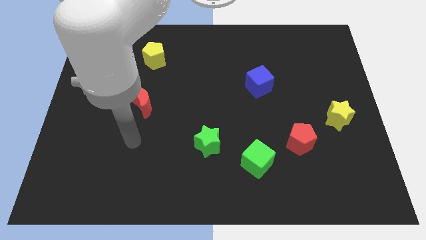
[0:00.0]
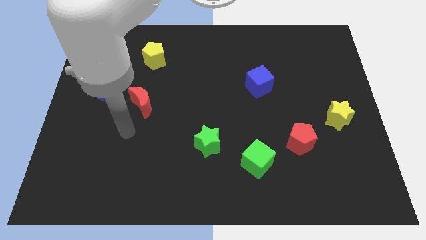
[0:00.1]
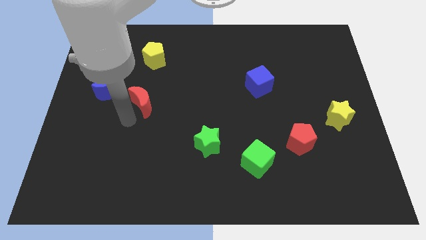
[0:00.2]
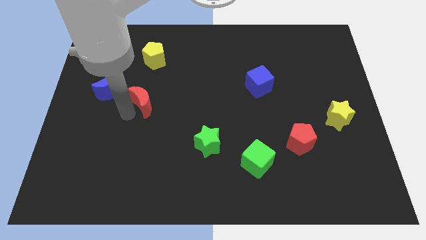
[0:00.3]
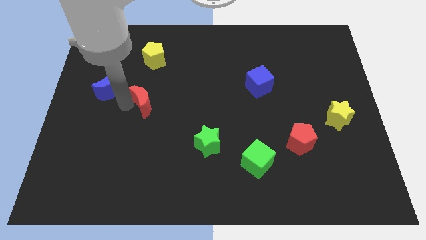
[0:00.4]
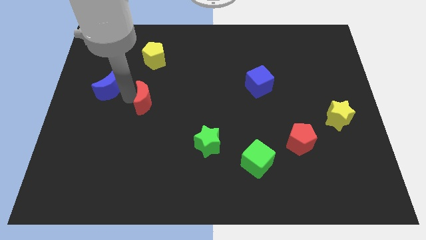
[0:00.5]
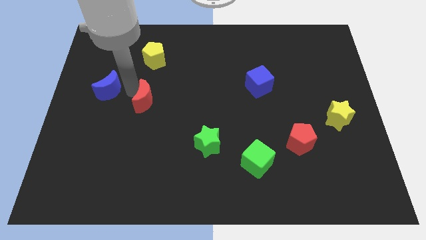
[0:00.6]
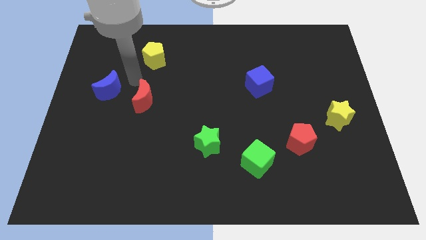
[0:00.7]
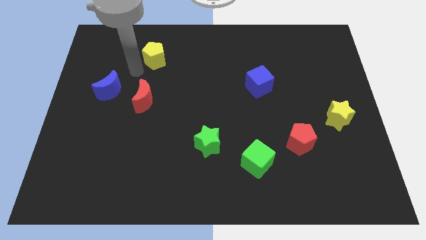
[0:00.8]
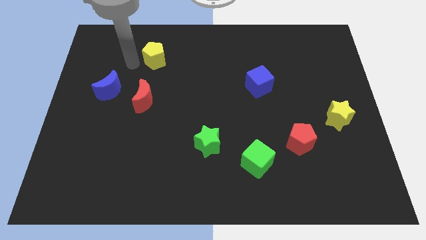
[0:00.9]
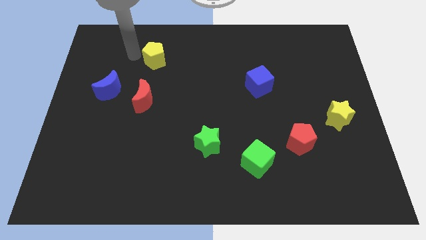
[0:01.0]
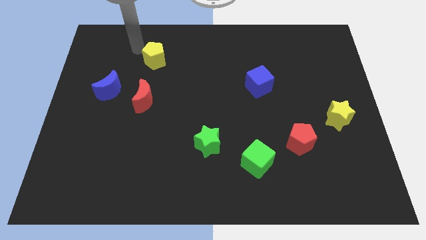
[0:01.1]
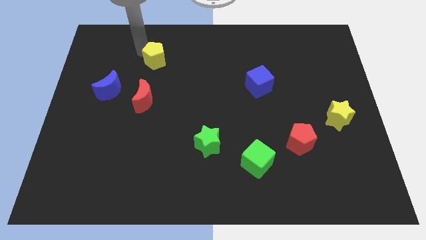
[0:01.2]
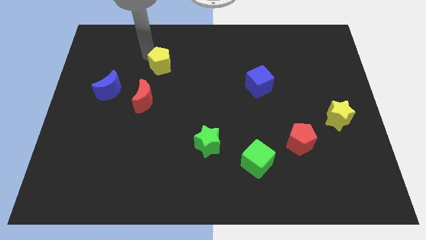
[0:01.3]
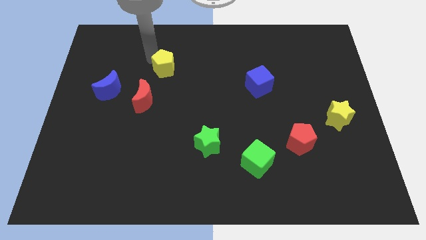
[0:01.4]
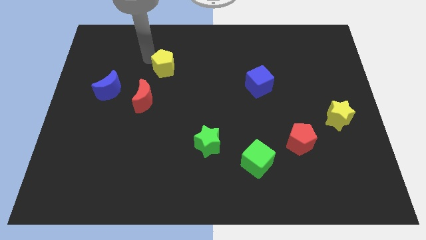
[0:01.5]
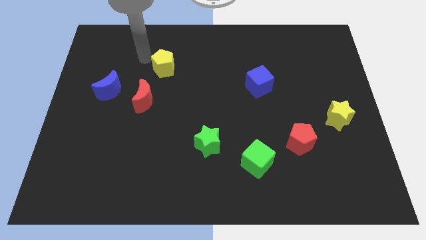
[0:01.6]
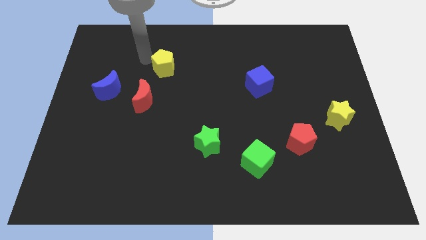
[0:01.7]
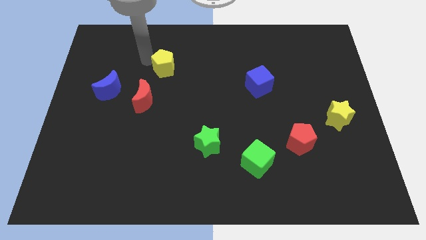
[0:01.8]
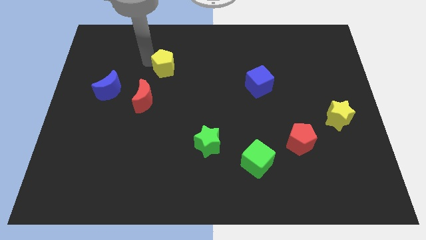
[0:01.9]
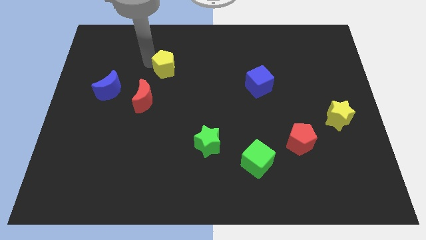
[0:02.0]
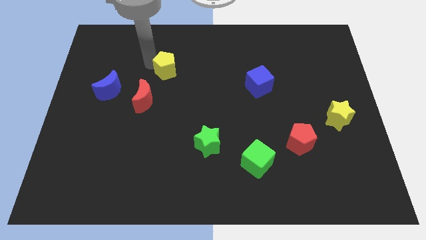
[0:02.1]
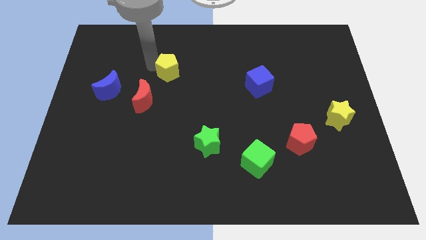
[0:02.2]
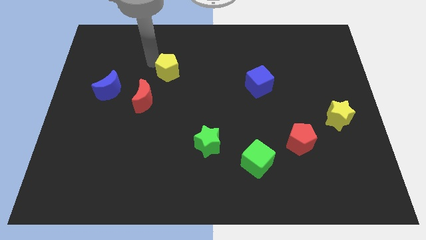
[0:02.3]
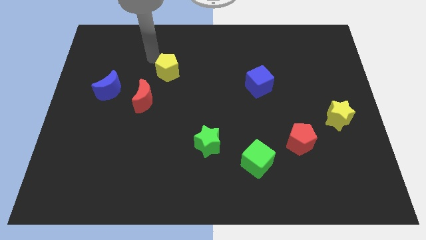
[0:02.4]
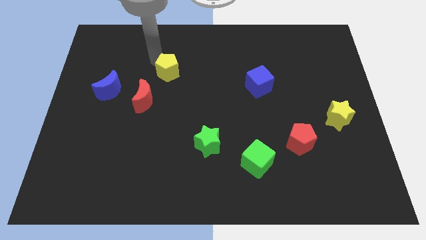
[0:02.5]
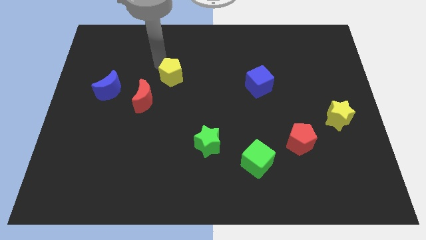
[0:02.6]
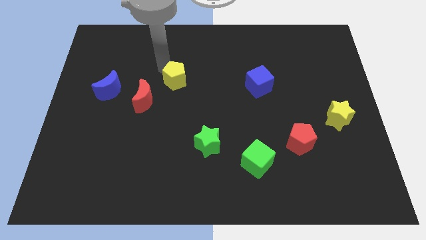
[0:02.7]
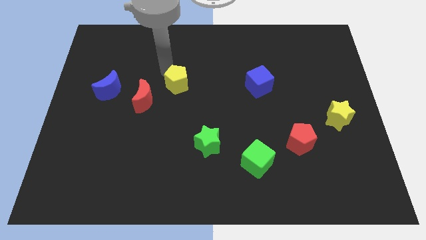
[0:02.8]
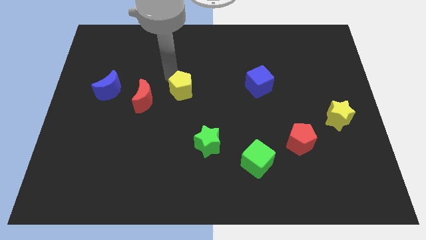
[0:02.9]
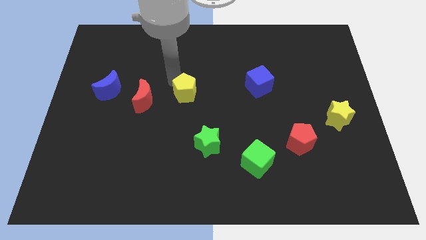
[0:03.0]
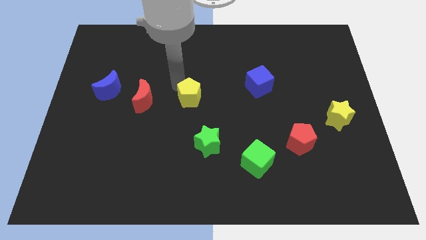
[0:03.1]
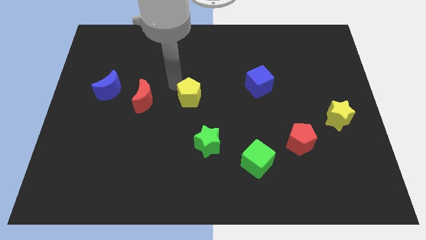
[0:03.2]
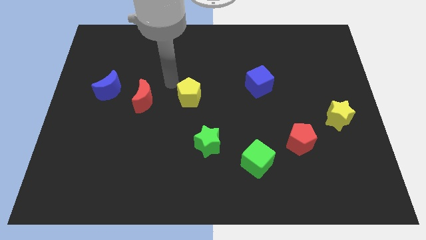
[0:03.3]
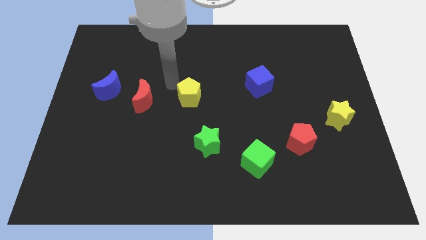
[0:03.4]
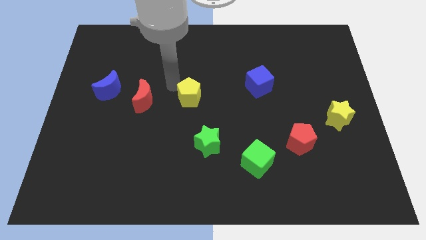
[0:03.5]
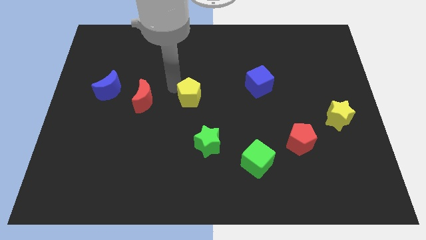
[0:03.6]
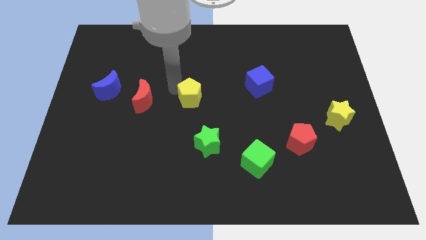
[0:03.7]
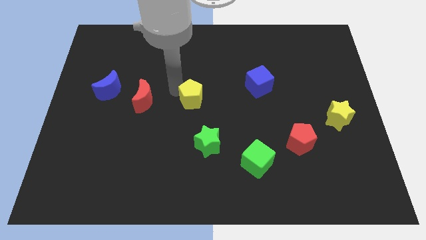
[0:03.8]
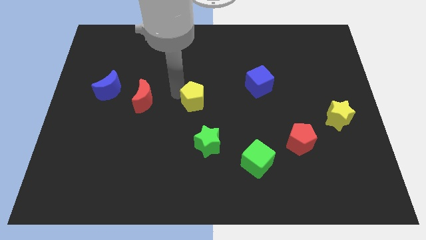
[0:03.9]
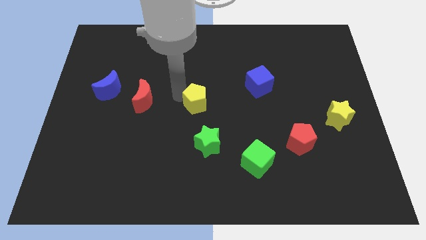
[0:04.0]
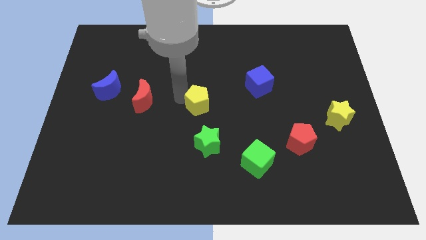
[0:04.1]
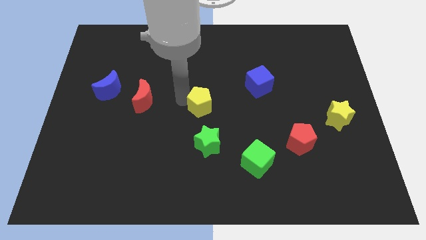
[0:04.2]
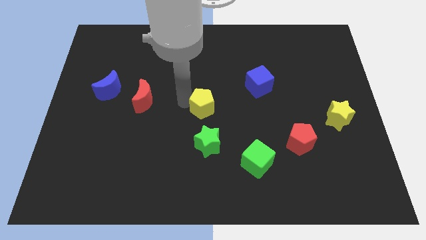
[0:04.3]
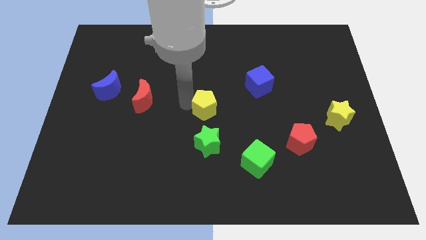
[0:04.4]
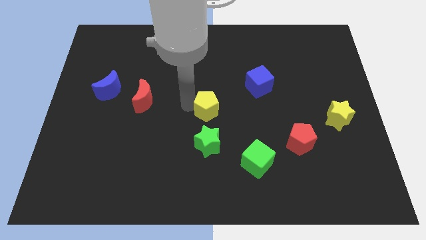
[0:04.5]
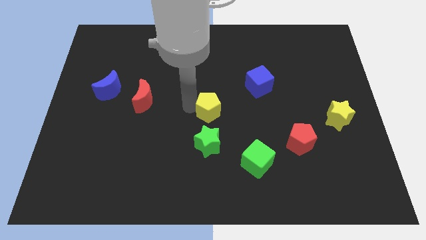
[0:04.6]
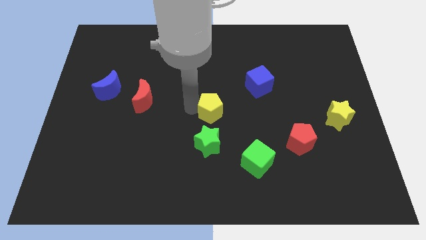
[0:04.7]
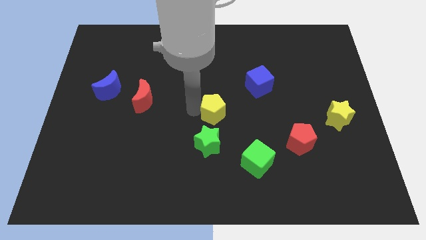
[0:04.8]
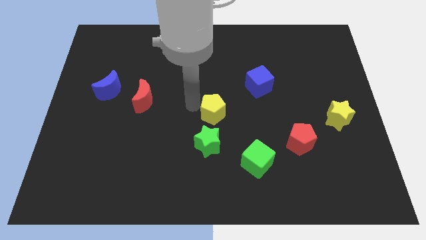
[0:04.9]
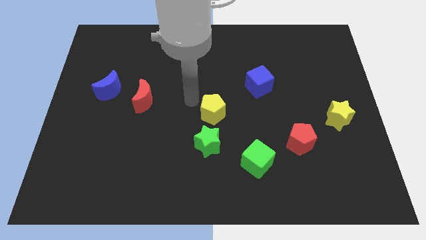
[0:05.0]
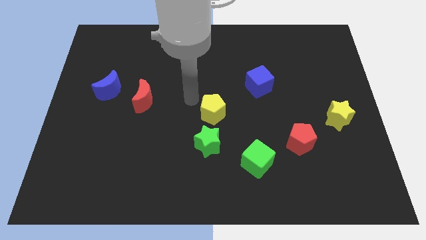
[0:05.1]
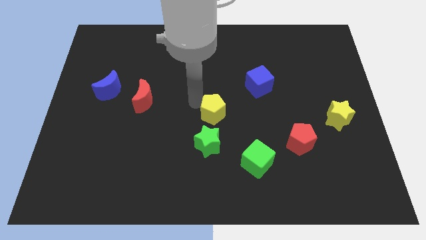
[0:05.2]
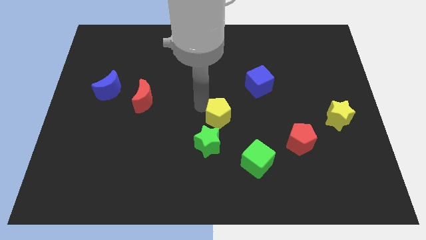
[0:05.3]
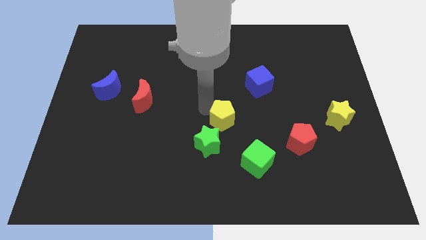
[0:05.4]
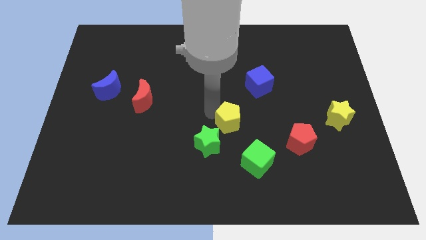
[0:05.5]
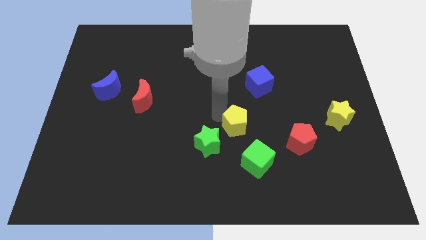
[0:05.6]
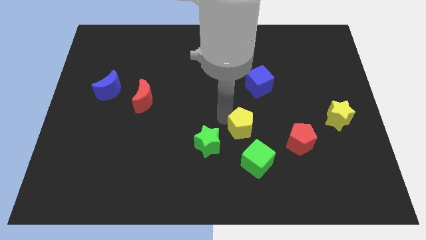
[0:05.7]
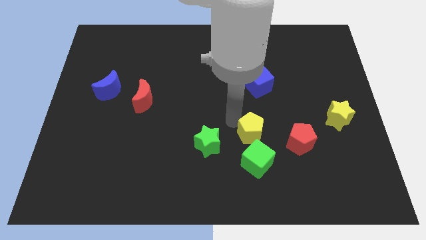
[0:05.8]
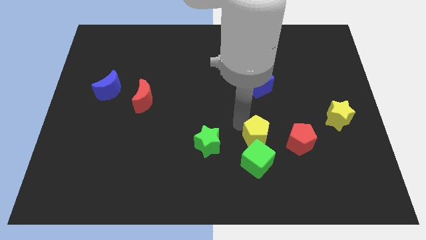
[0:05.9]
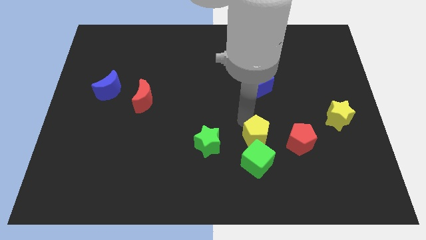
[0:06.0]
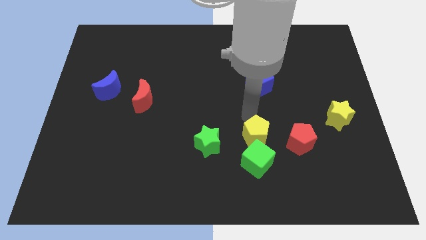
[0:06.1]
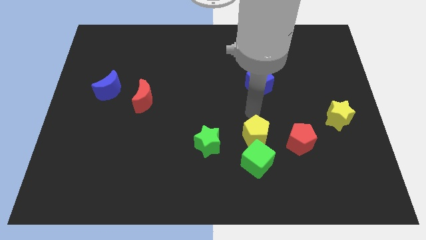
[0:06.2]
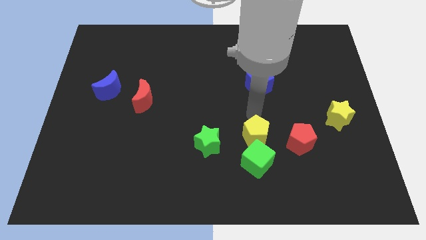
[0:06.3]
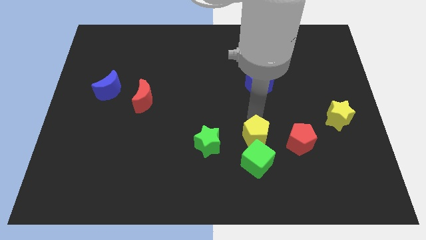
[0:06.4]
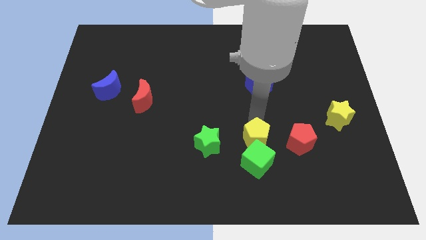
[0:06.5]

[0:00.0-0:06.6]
push the yellow pentagon next to the green cube
